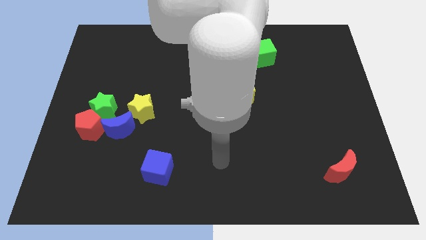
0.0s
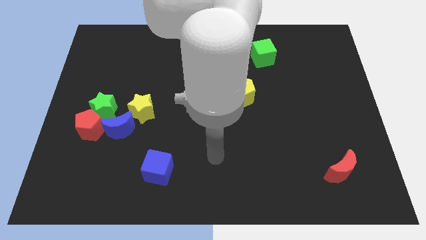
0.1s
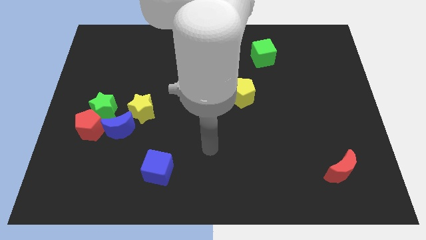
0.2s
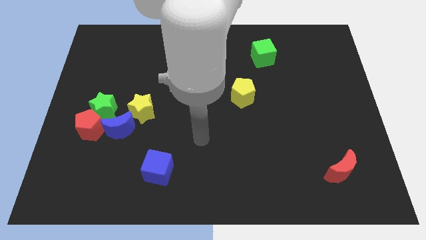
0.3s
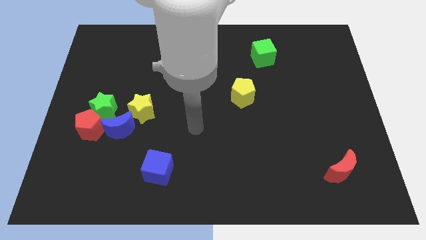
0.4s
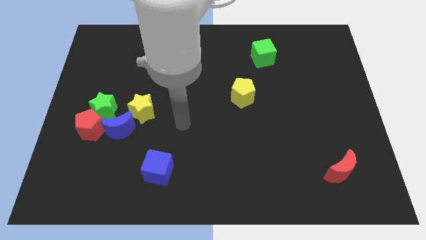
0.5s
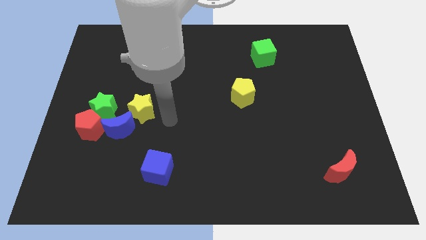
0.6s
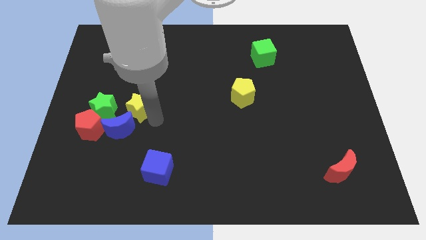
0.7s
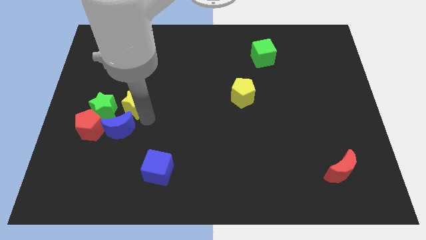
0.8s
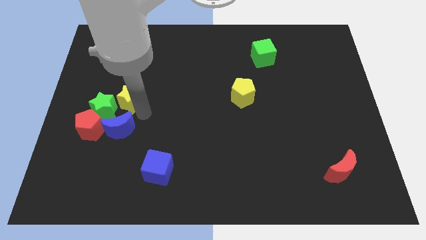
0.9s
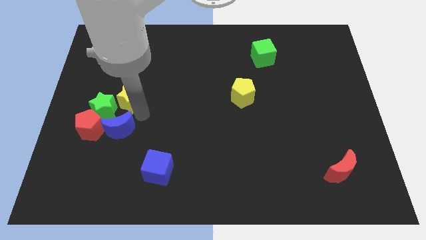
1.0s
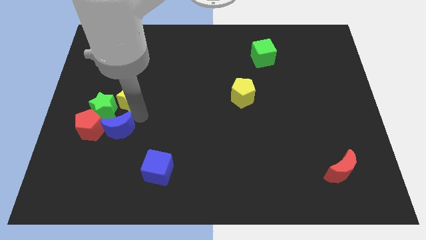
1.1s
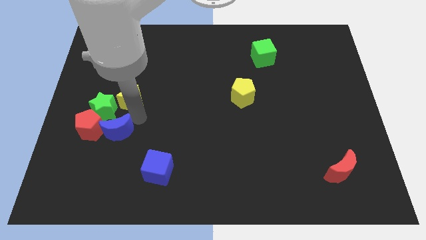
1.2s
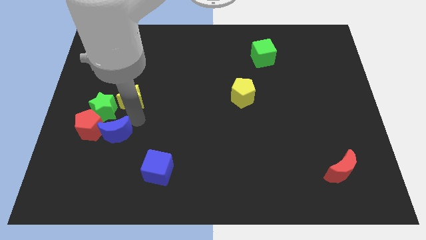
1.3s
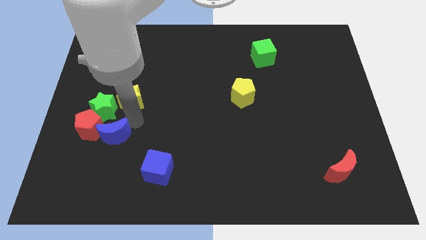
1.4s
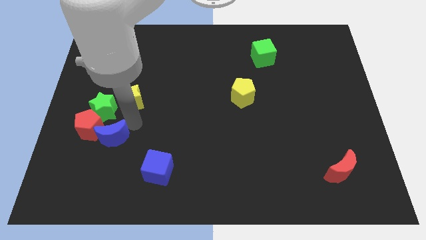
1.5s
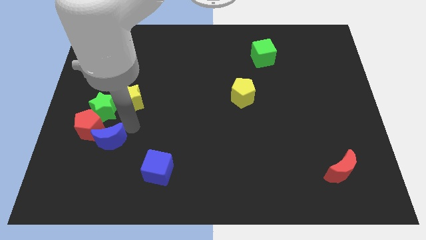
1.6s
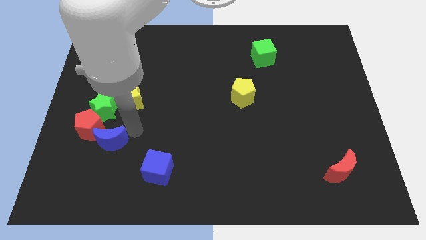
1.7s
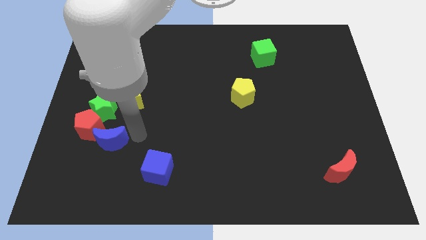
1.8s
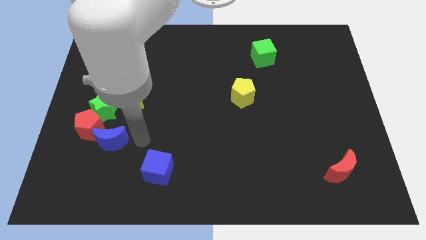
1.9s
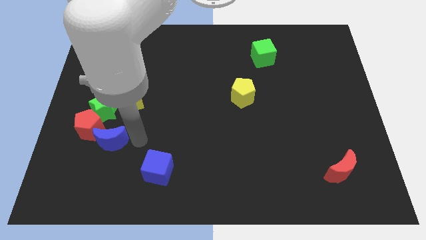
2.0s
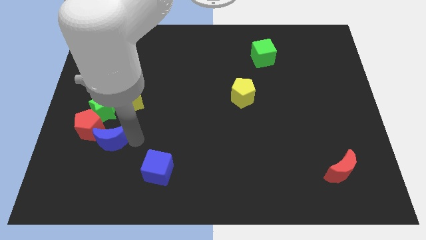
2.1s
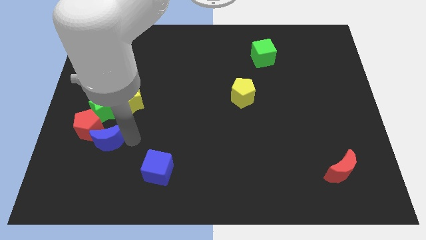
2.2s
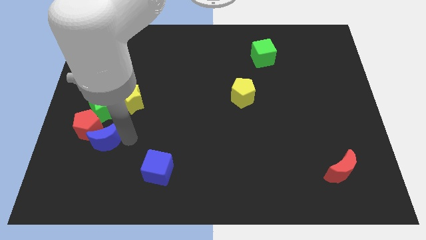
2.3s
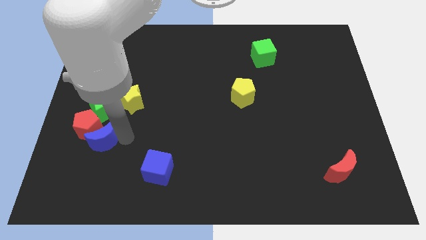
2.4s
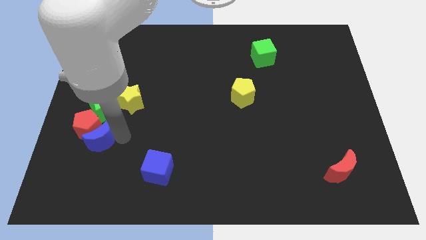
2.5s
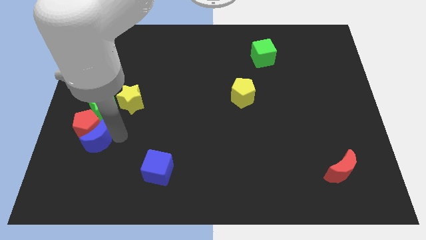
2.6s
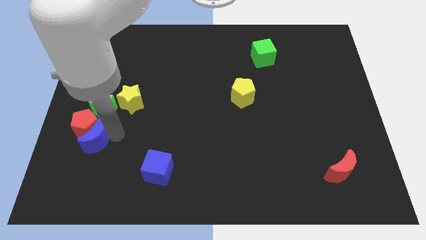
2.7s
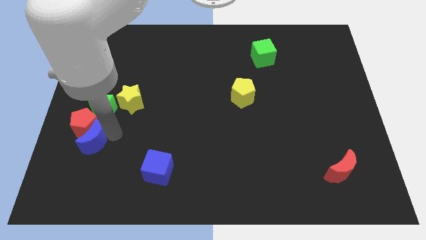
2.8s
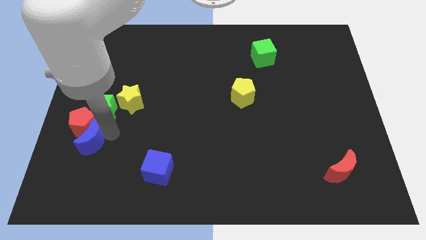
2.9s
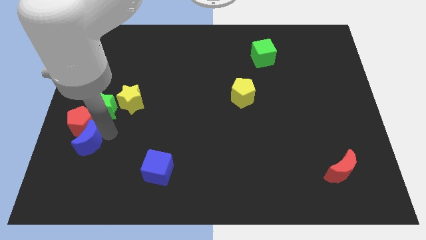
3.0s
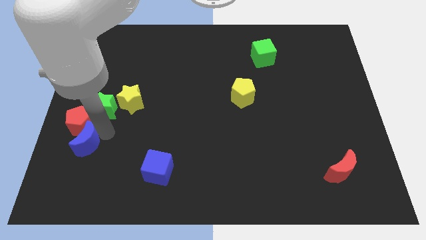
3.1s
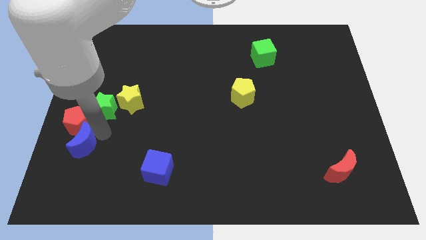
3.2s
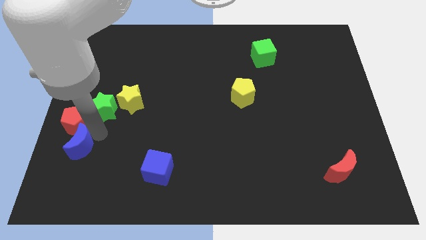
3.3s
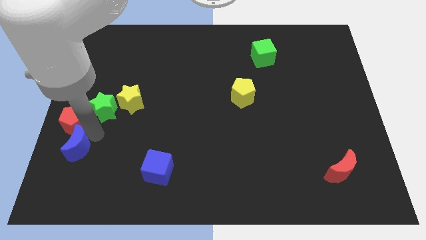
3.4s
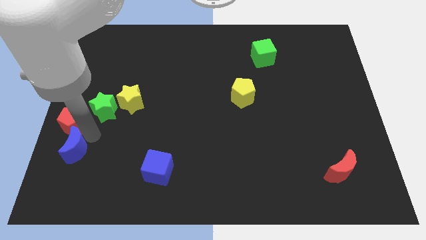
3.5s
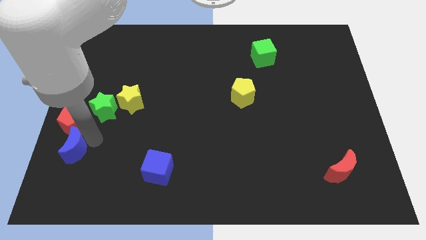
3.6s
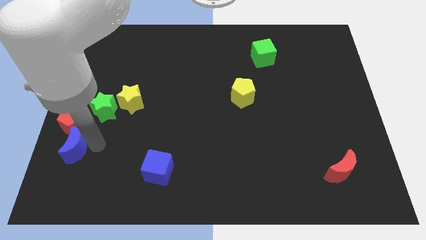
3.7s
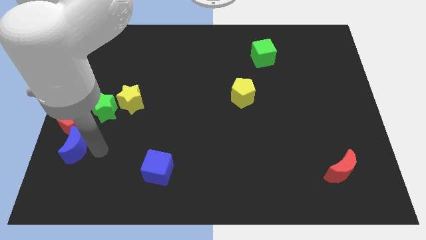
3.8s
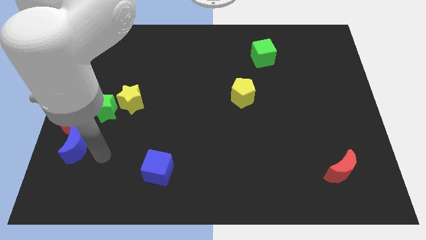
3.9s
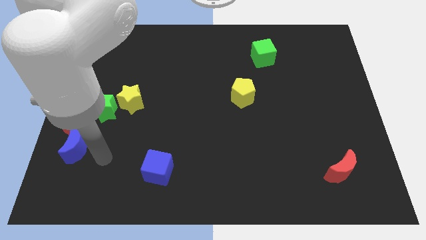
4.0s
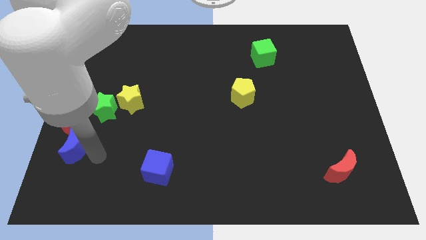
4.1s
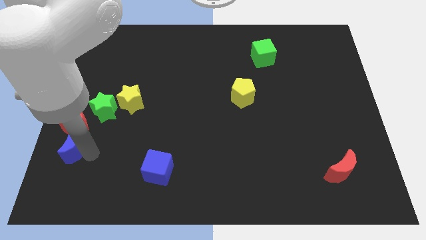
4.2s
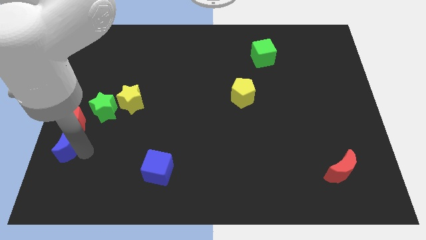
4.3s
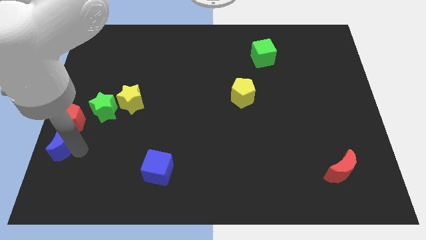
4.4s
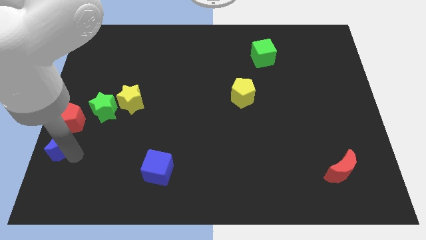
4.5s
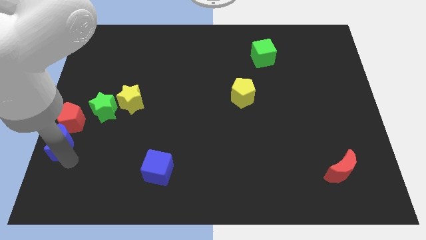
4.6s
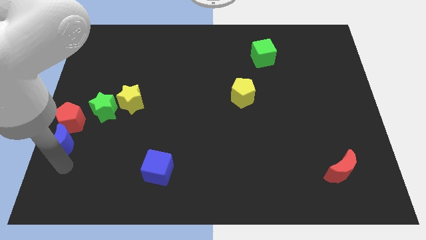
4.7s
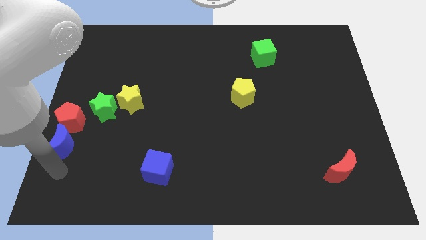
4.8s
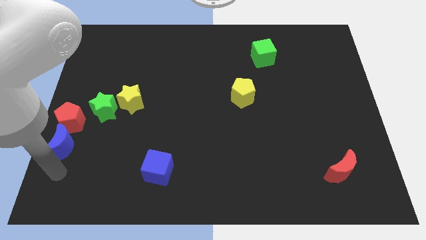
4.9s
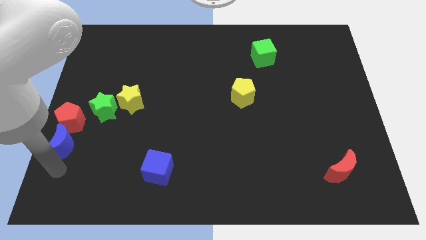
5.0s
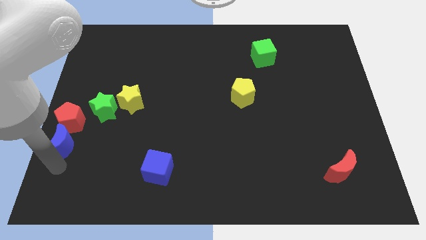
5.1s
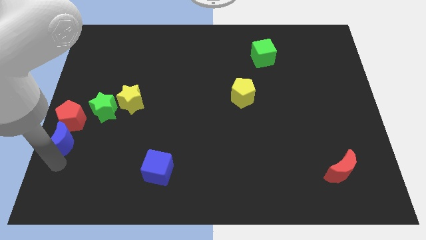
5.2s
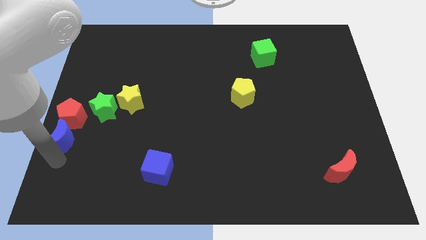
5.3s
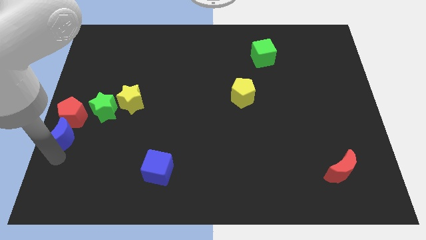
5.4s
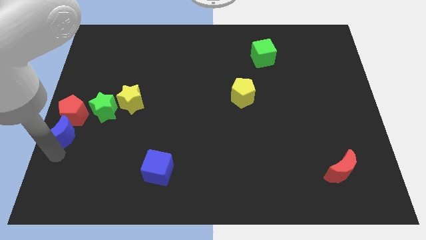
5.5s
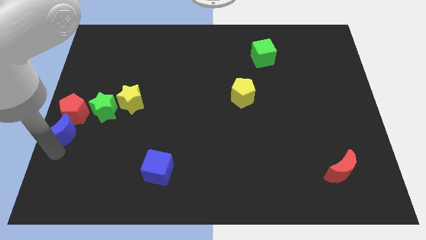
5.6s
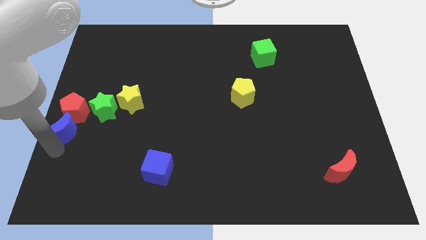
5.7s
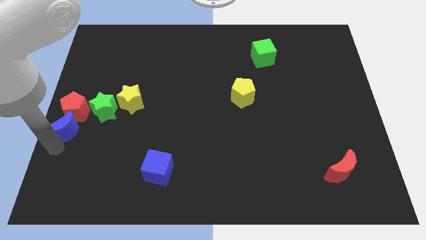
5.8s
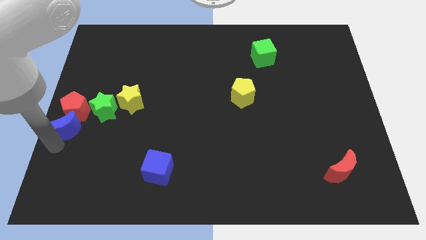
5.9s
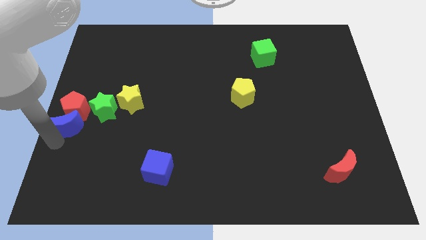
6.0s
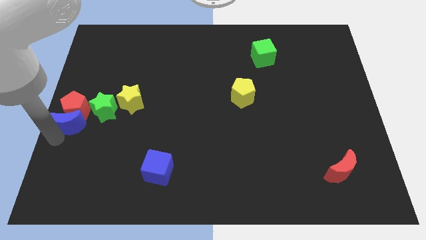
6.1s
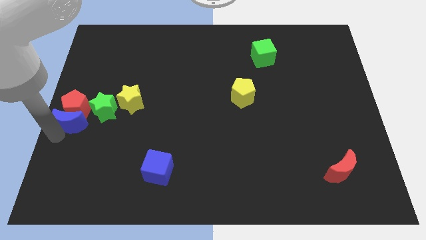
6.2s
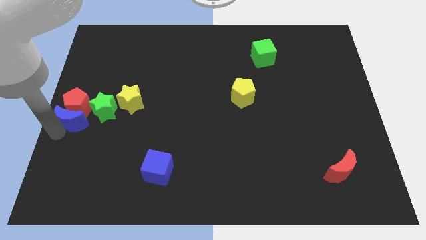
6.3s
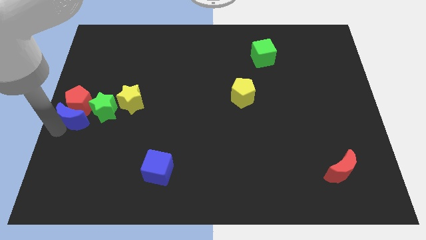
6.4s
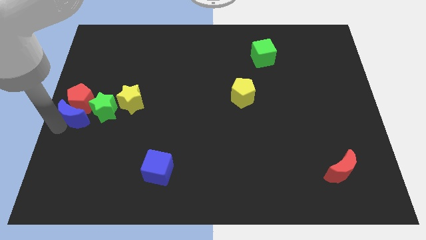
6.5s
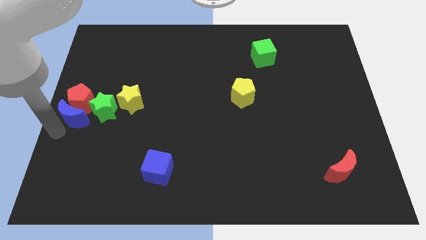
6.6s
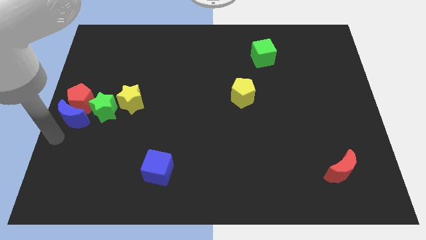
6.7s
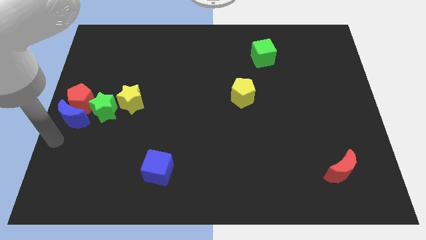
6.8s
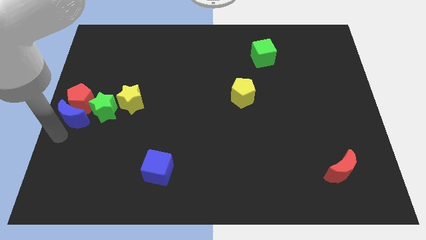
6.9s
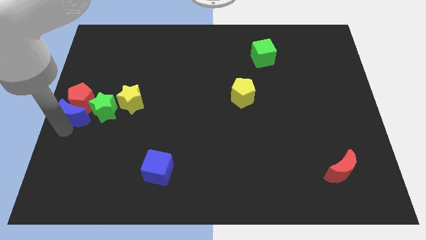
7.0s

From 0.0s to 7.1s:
move the blue moon to the left side of the yellow star
